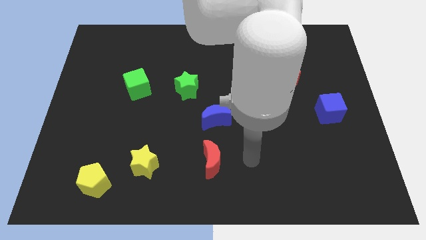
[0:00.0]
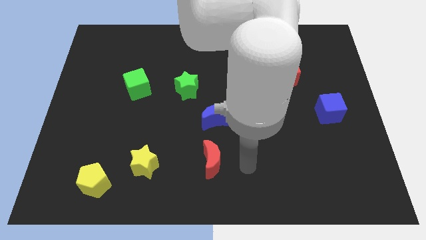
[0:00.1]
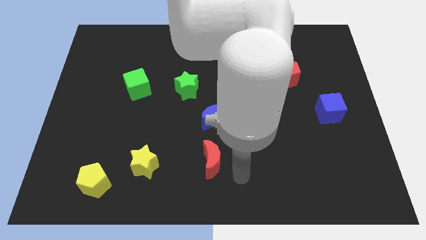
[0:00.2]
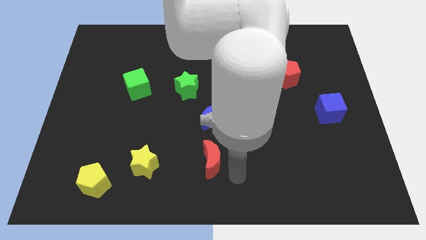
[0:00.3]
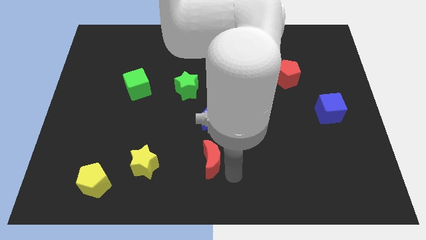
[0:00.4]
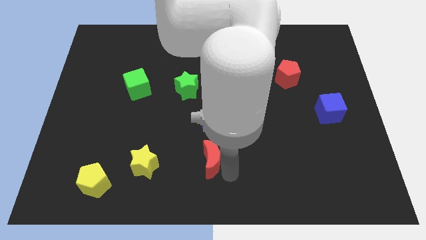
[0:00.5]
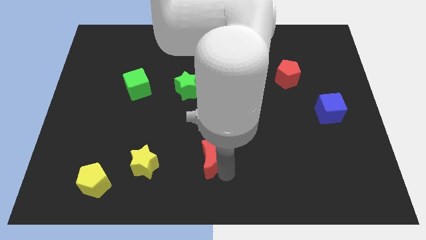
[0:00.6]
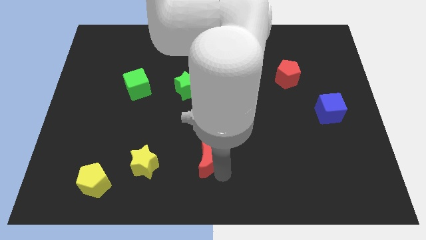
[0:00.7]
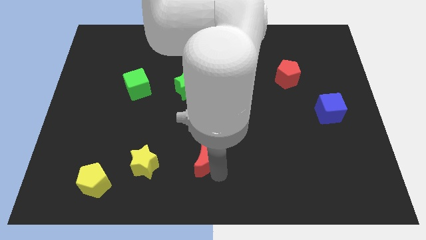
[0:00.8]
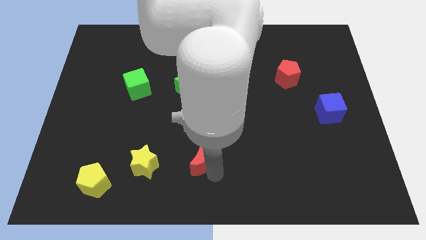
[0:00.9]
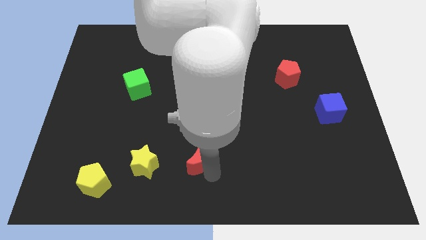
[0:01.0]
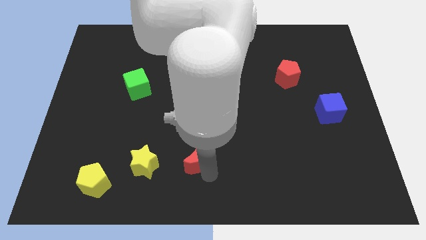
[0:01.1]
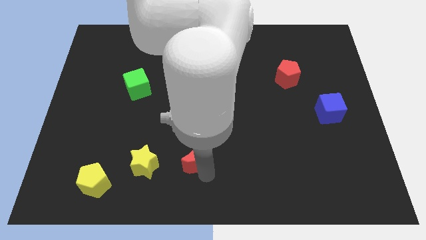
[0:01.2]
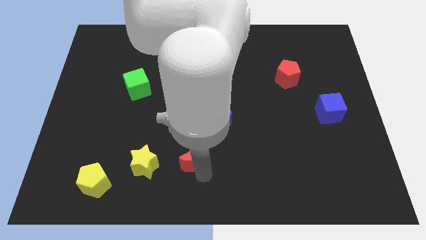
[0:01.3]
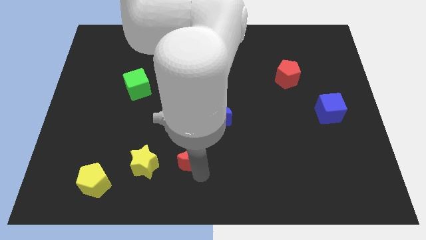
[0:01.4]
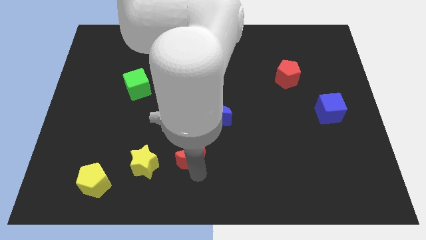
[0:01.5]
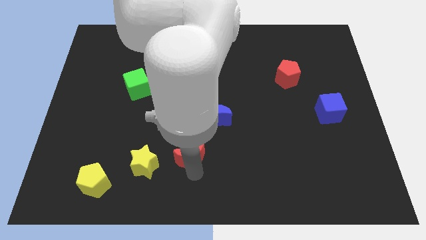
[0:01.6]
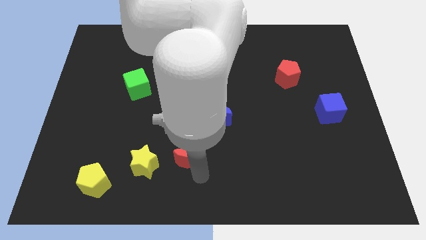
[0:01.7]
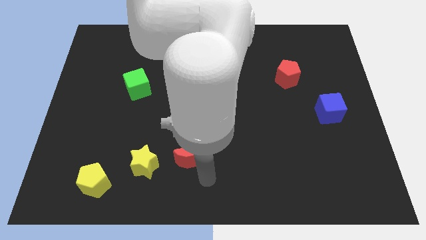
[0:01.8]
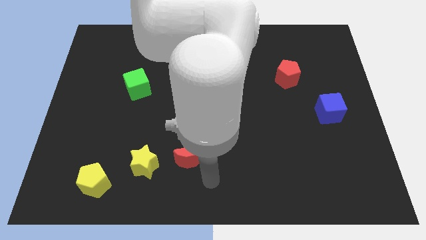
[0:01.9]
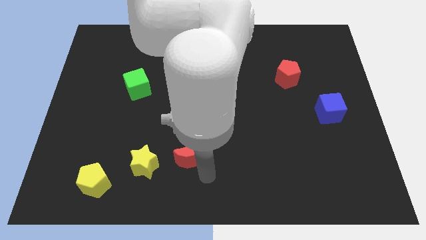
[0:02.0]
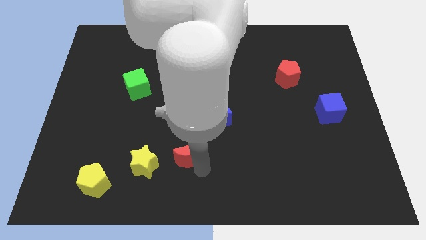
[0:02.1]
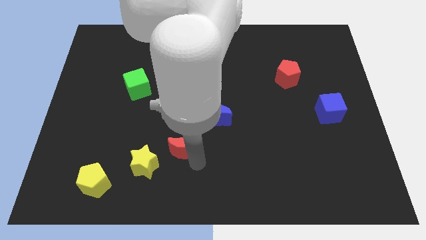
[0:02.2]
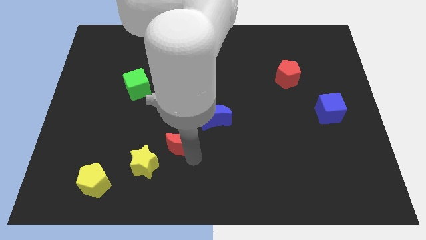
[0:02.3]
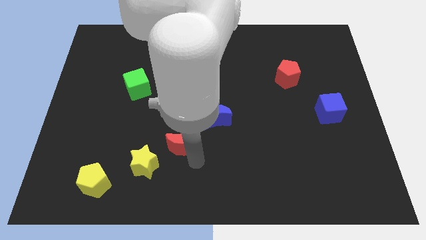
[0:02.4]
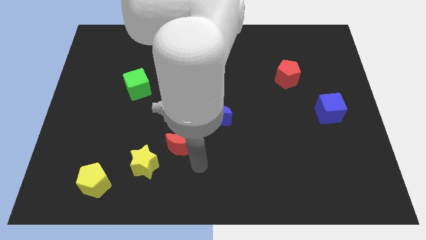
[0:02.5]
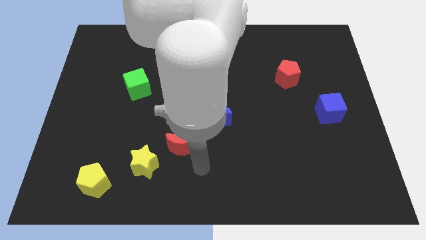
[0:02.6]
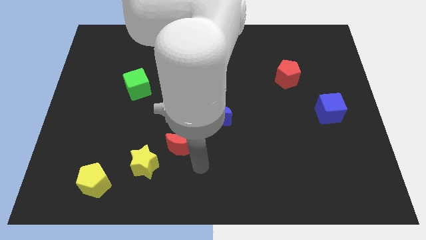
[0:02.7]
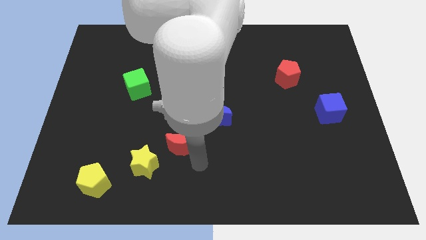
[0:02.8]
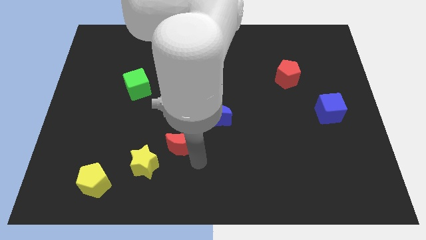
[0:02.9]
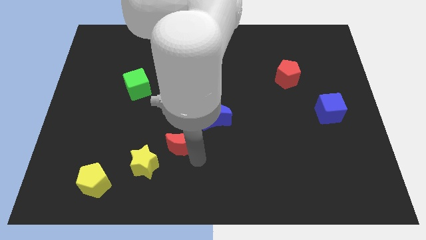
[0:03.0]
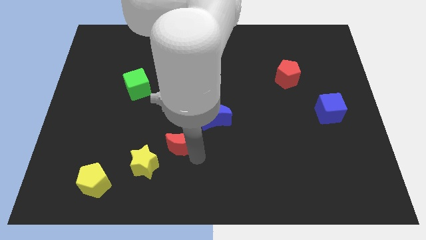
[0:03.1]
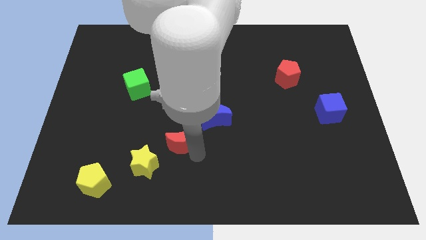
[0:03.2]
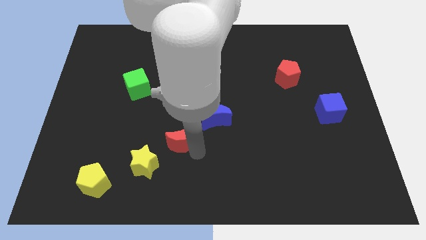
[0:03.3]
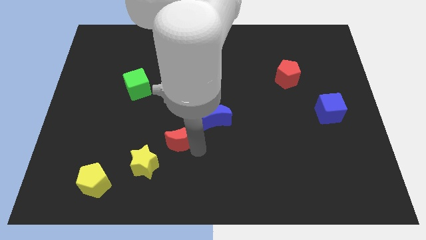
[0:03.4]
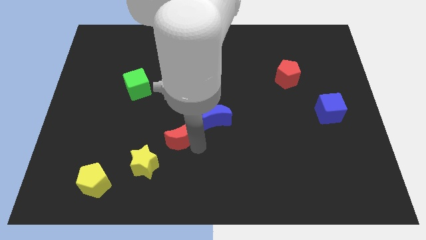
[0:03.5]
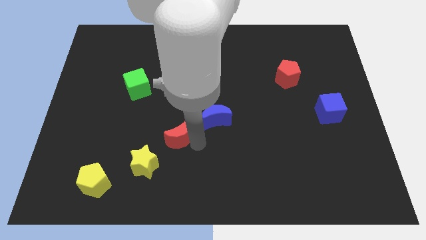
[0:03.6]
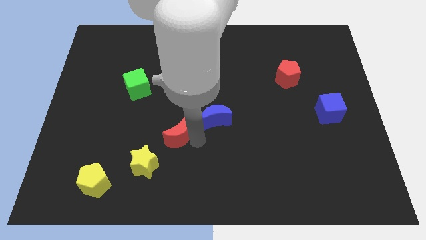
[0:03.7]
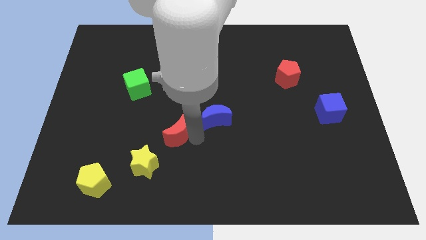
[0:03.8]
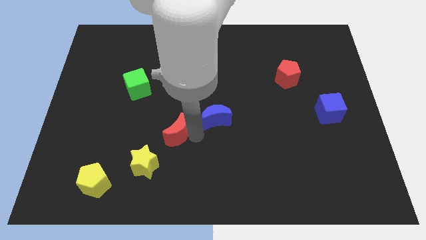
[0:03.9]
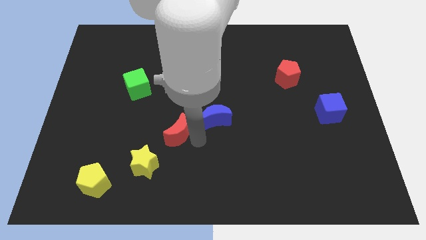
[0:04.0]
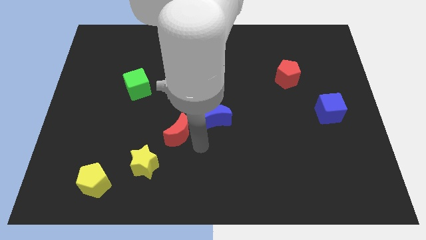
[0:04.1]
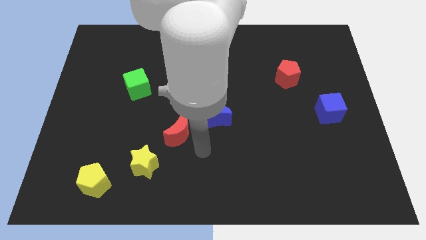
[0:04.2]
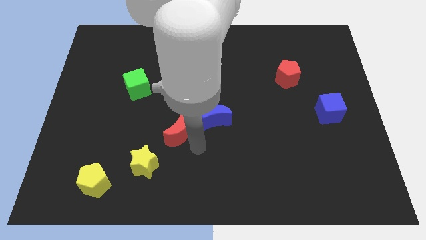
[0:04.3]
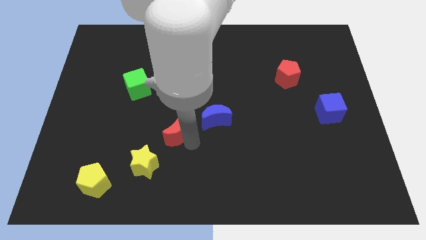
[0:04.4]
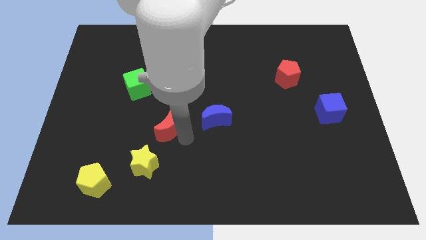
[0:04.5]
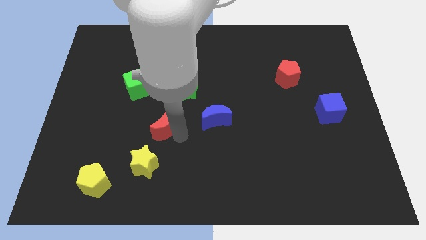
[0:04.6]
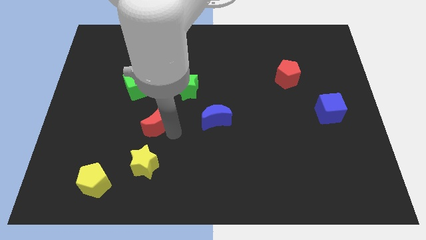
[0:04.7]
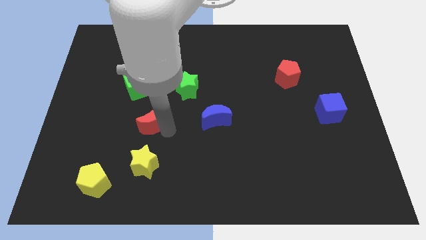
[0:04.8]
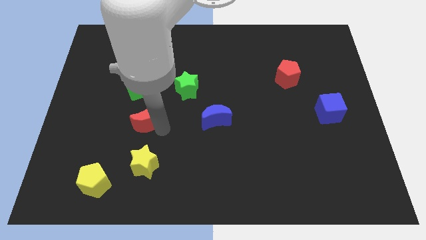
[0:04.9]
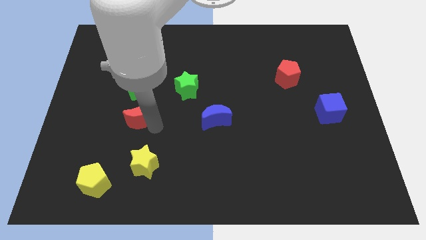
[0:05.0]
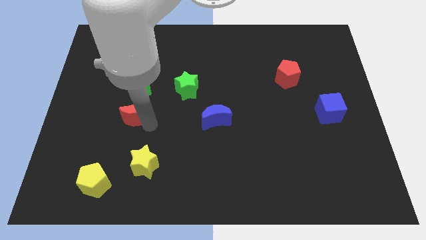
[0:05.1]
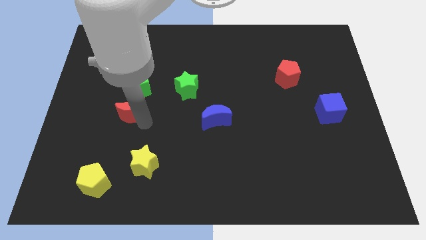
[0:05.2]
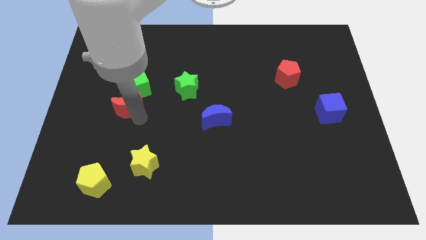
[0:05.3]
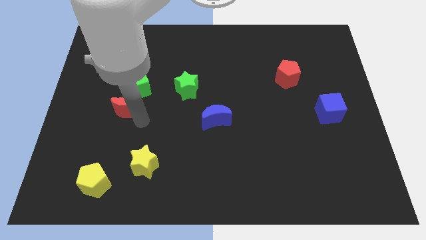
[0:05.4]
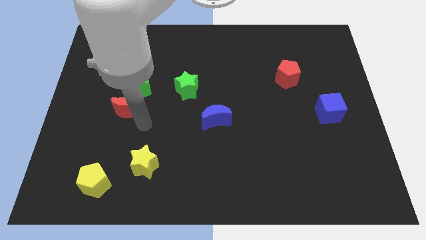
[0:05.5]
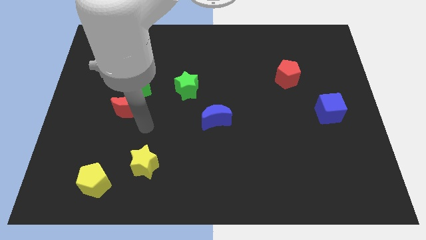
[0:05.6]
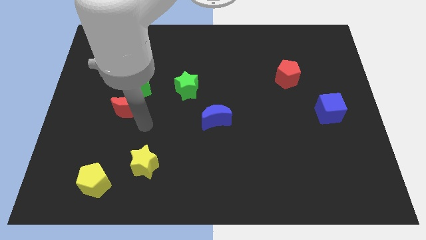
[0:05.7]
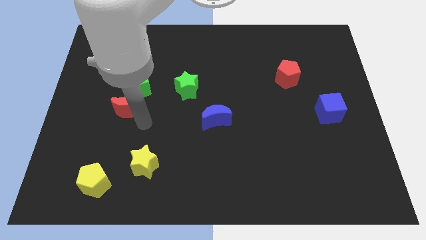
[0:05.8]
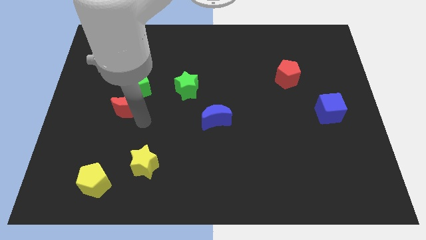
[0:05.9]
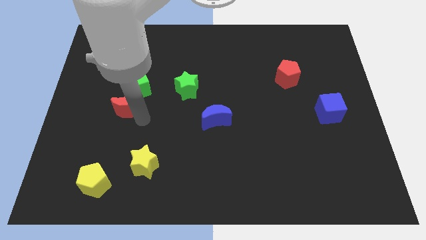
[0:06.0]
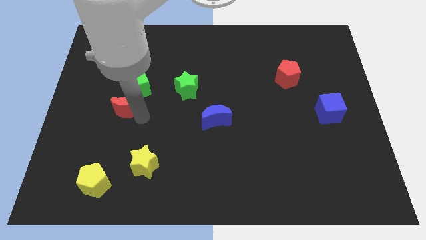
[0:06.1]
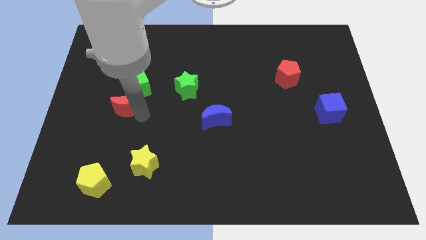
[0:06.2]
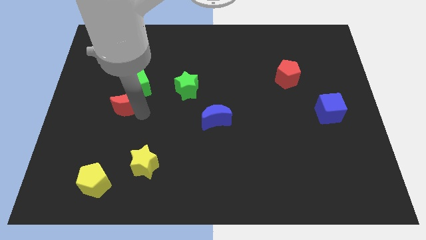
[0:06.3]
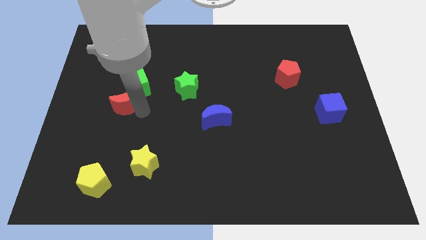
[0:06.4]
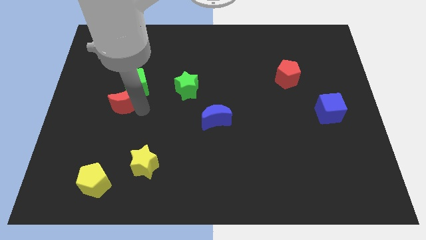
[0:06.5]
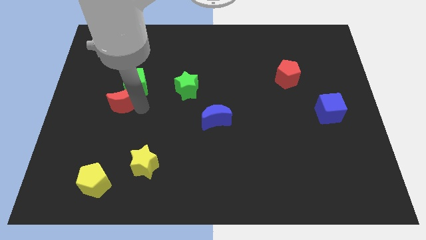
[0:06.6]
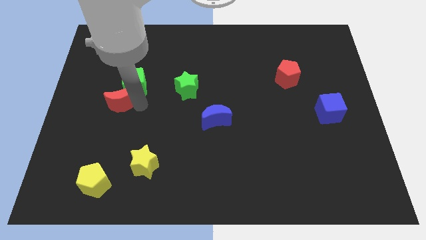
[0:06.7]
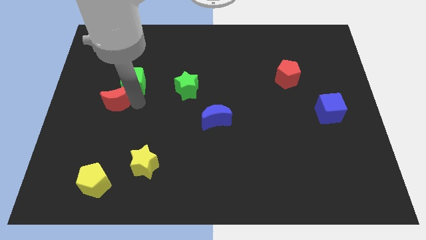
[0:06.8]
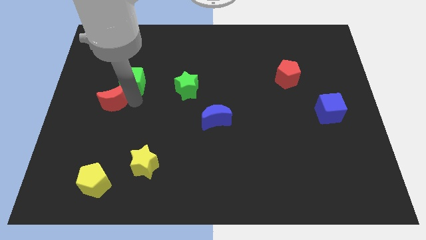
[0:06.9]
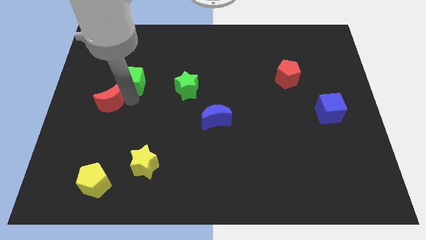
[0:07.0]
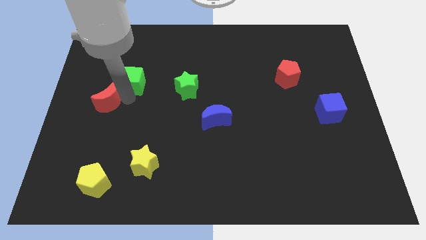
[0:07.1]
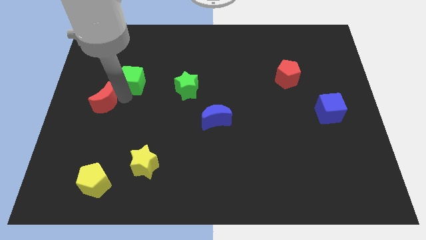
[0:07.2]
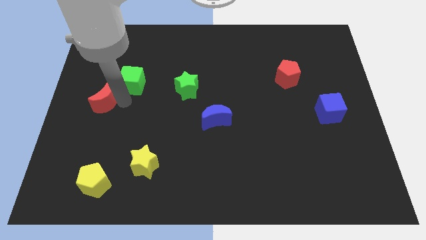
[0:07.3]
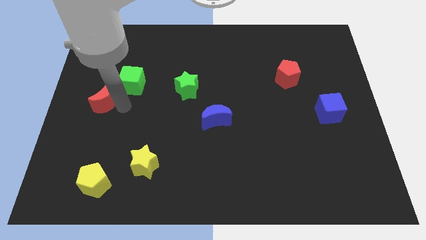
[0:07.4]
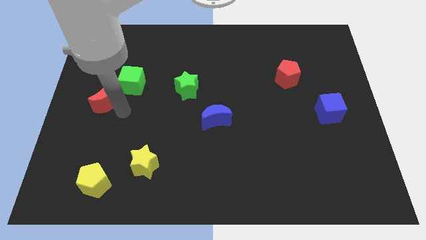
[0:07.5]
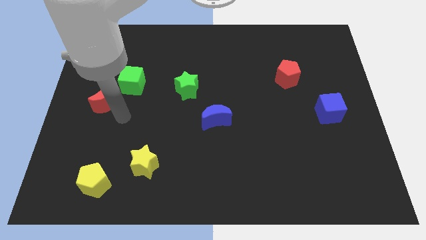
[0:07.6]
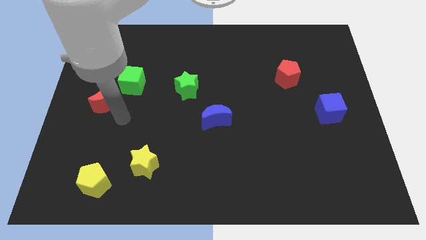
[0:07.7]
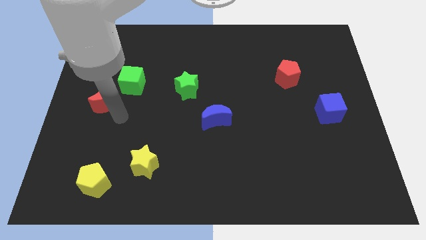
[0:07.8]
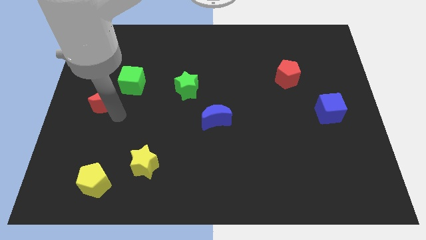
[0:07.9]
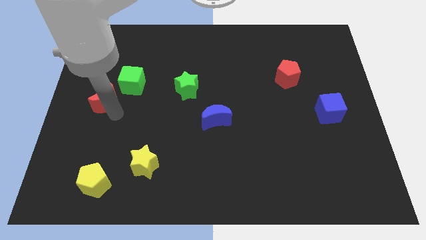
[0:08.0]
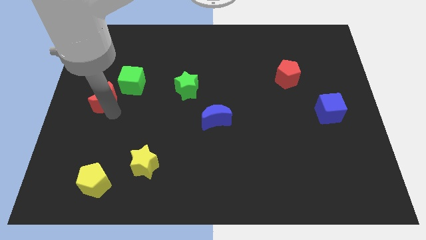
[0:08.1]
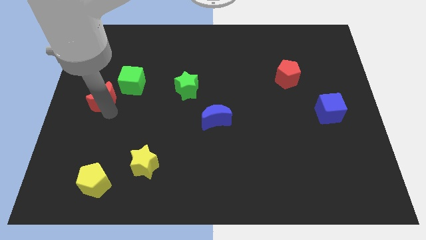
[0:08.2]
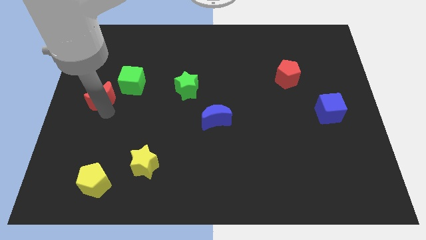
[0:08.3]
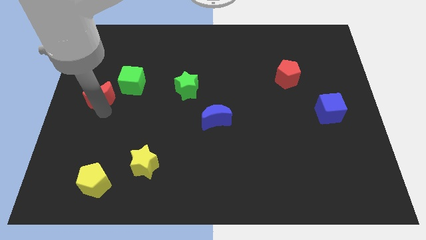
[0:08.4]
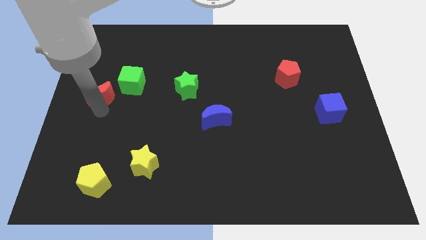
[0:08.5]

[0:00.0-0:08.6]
slide the red moon to the left of the green cube
